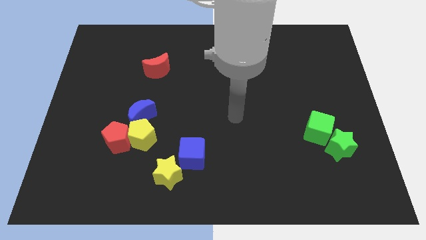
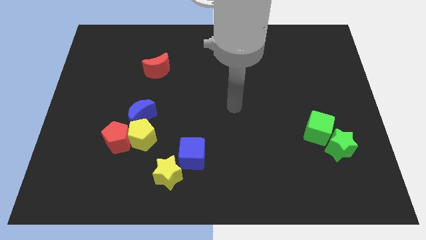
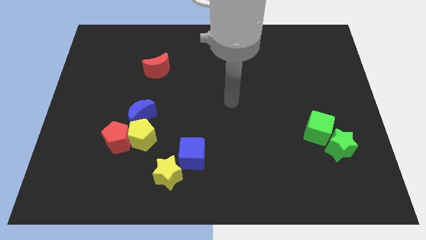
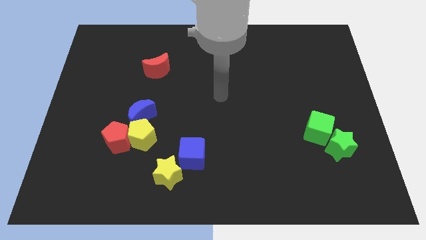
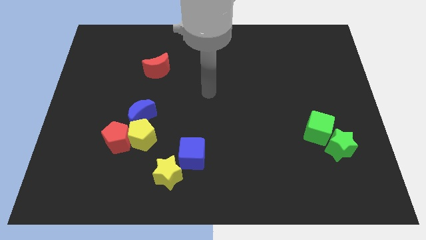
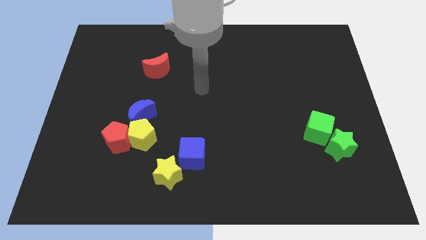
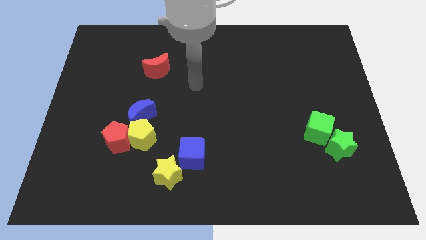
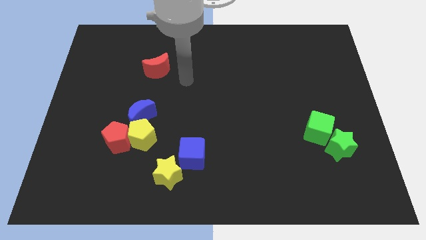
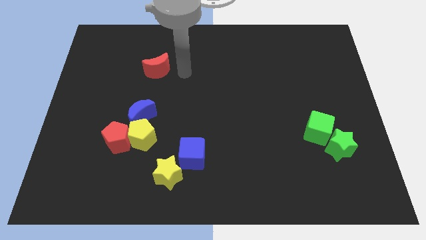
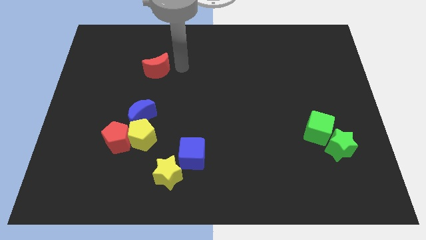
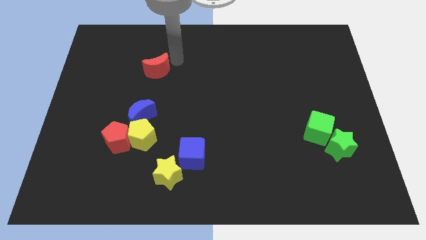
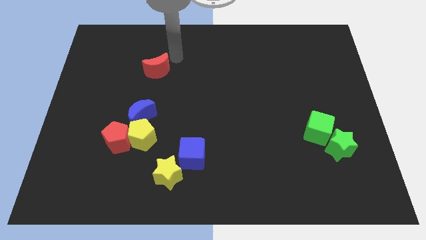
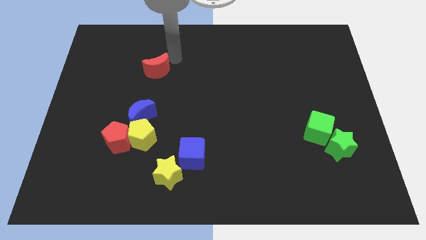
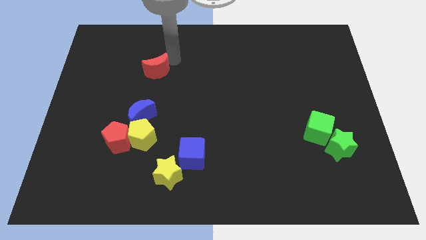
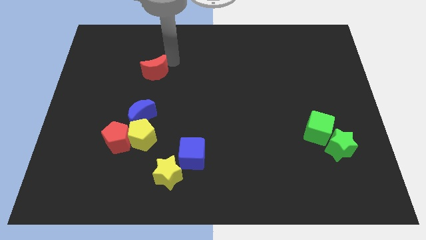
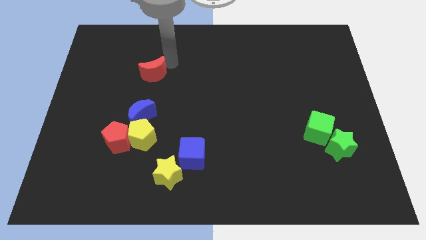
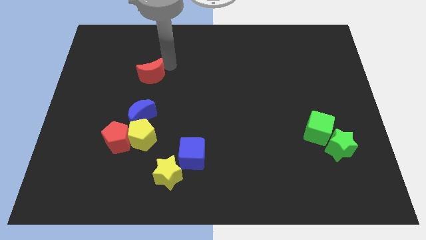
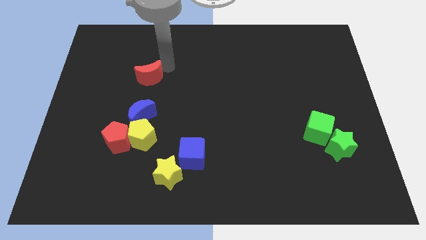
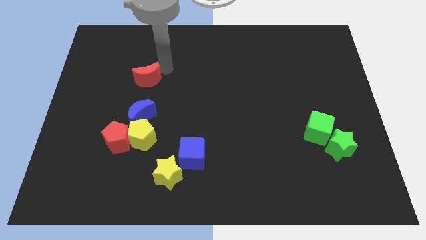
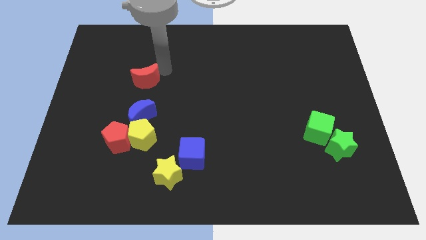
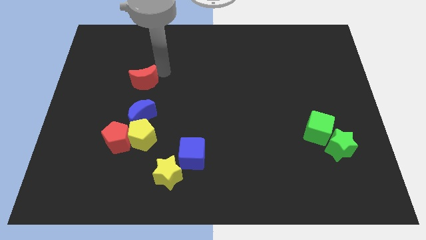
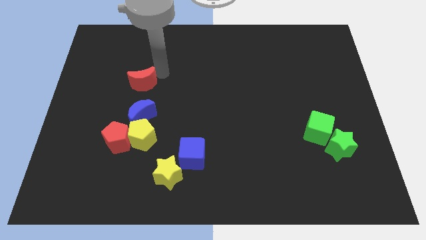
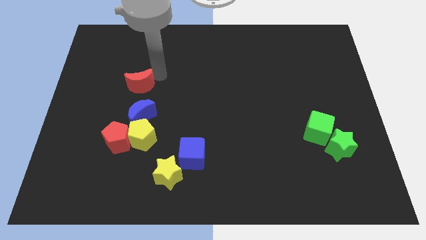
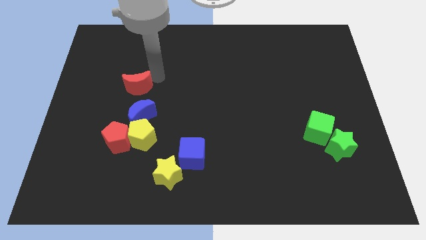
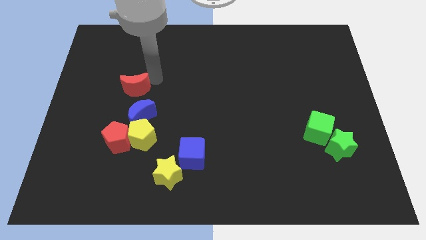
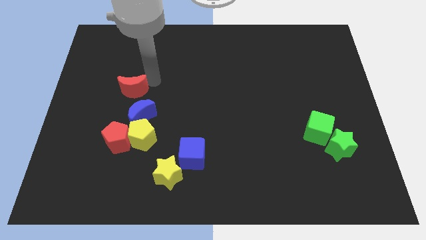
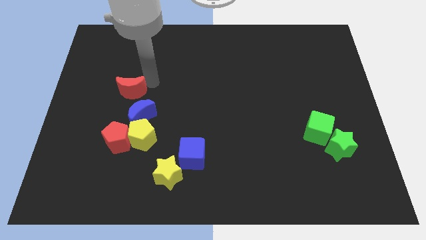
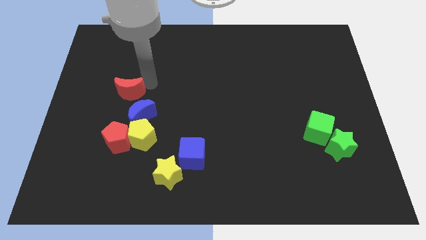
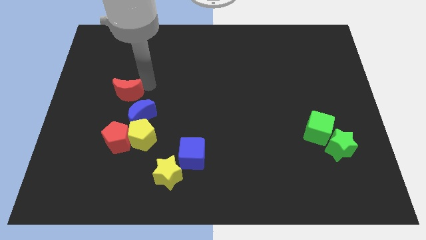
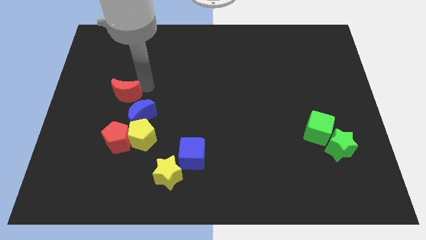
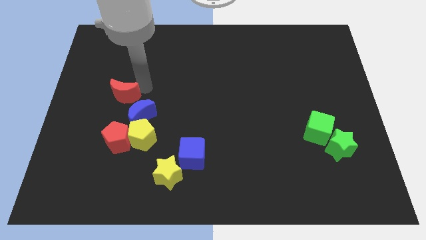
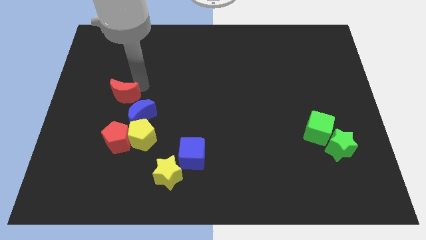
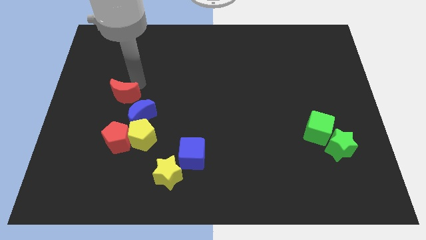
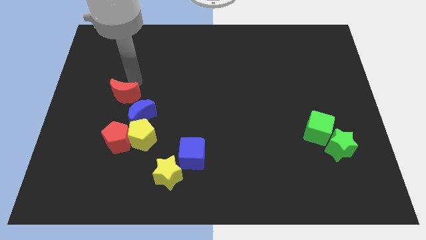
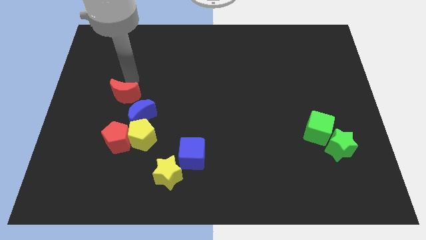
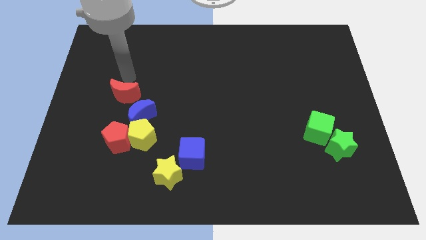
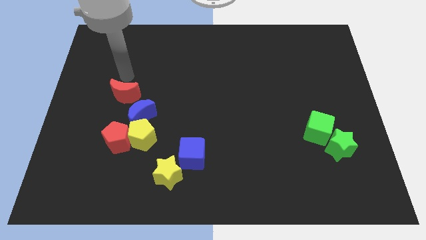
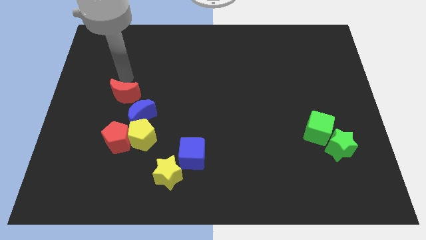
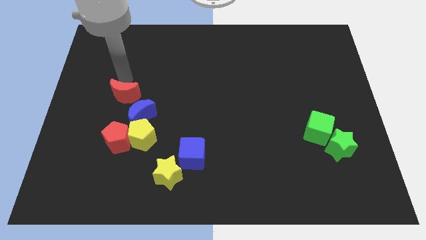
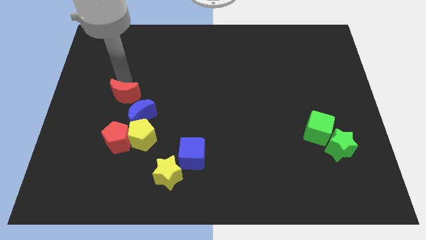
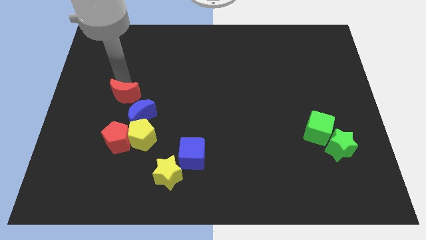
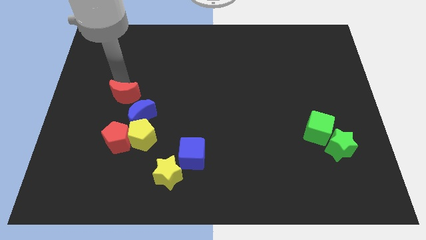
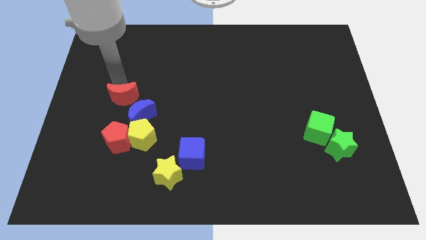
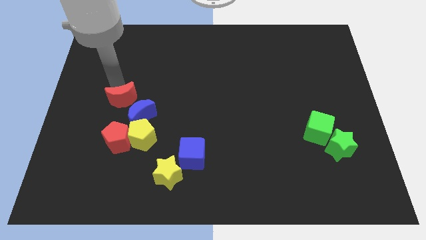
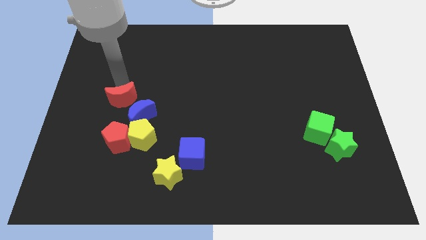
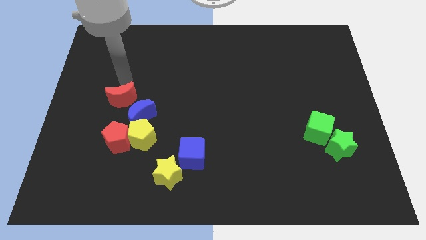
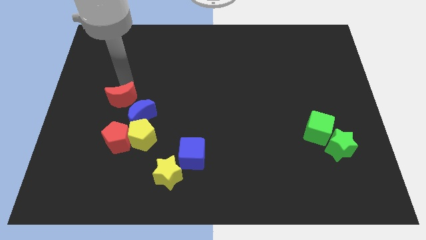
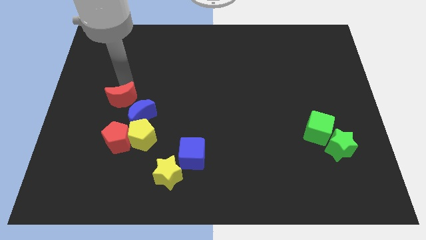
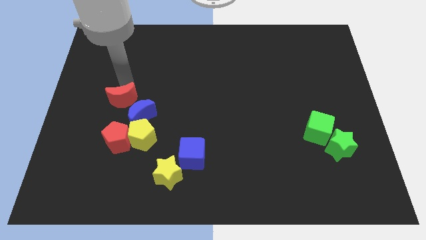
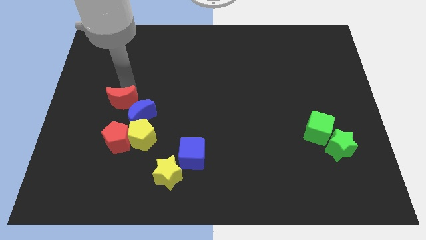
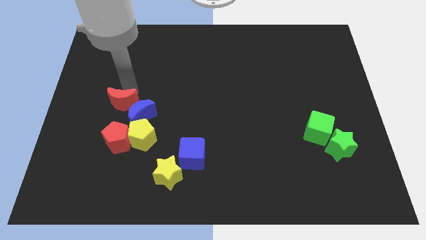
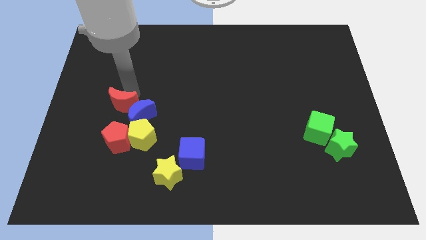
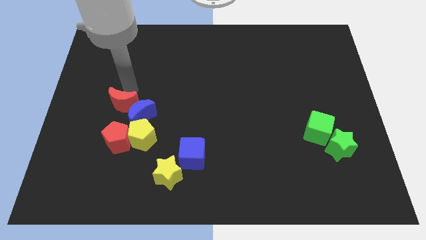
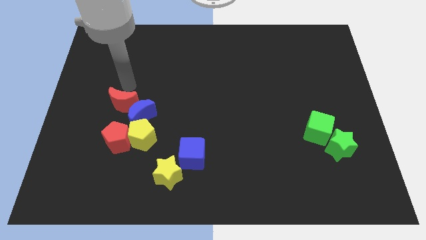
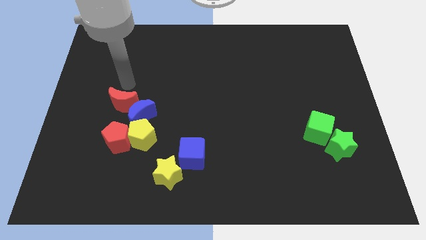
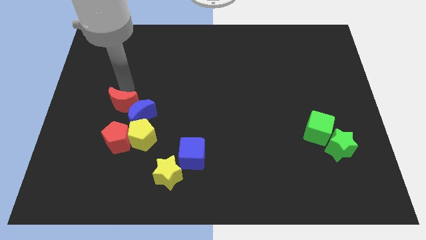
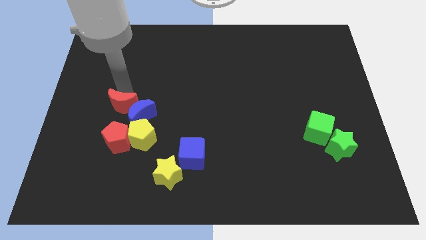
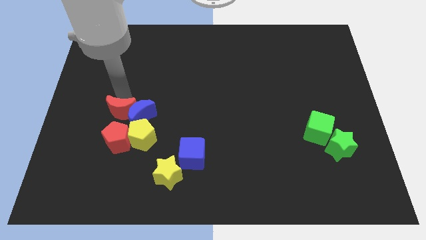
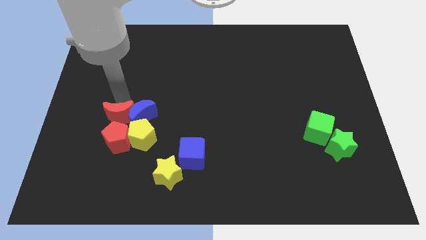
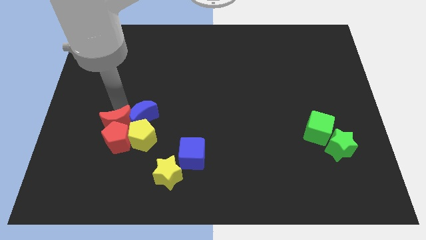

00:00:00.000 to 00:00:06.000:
move the red moon to the red pentagon
